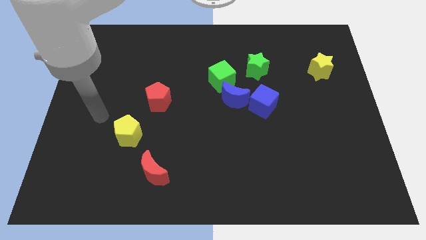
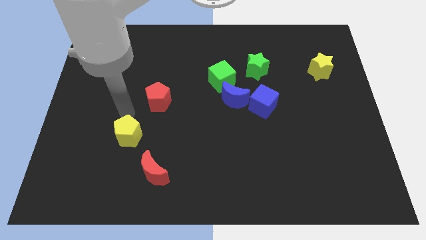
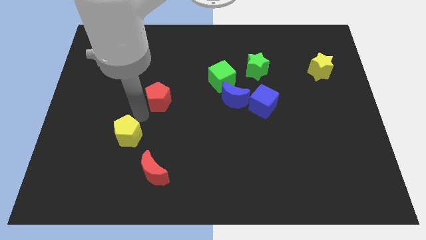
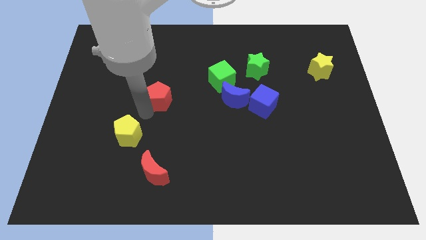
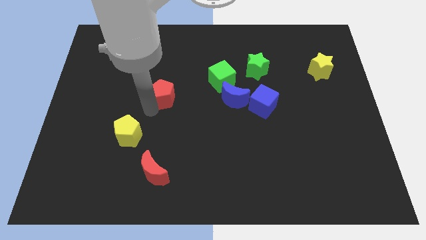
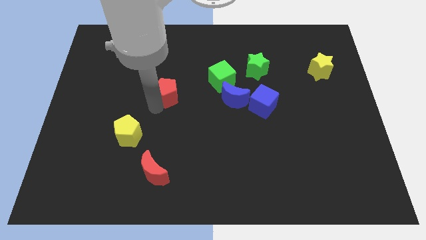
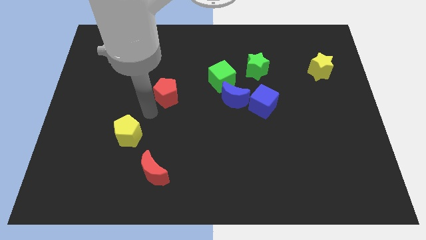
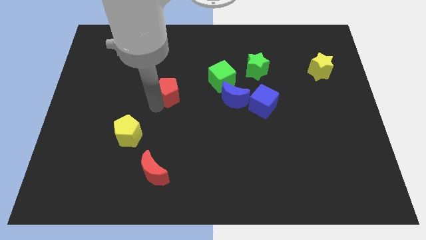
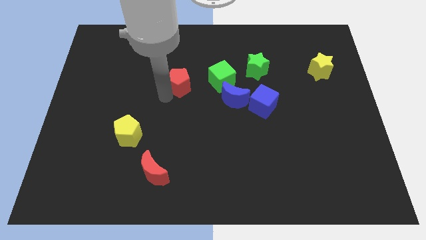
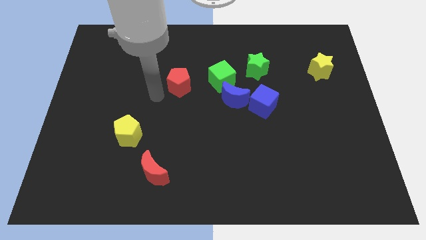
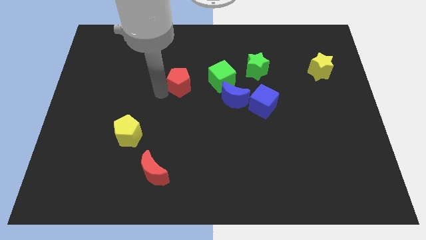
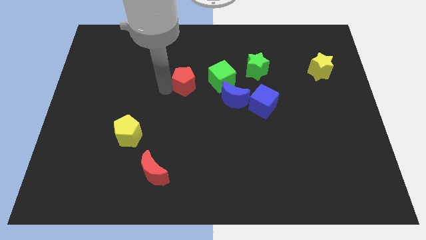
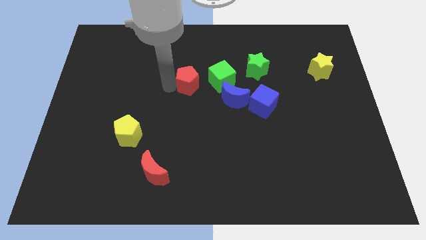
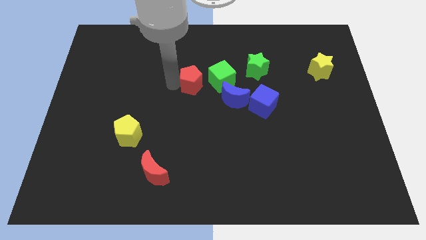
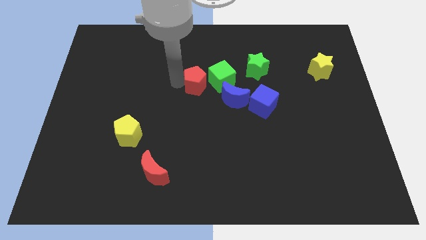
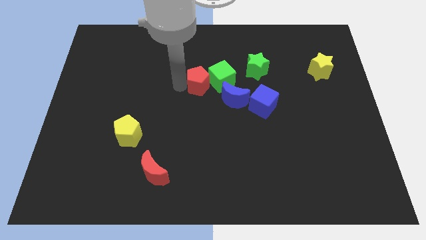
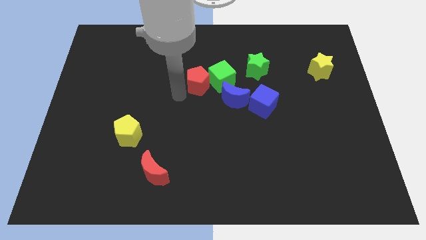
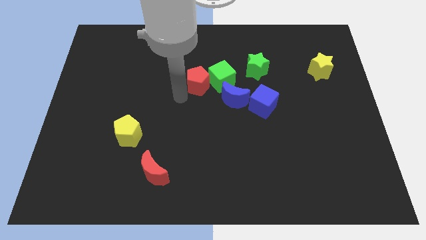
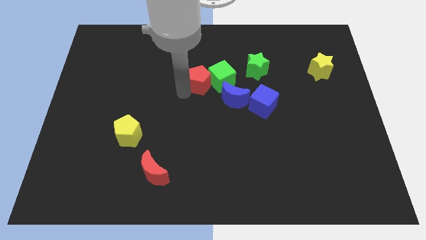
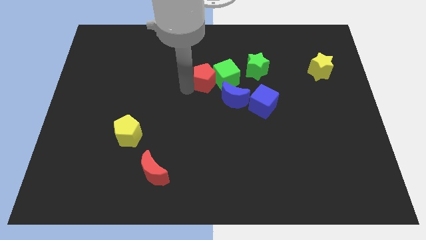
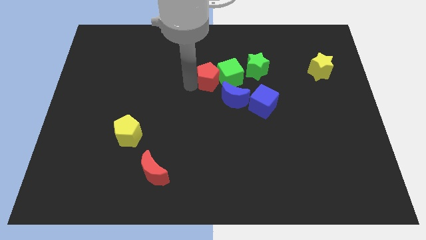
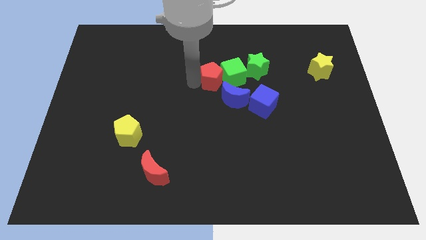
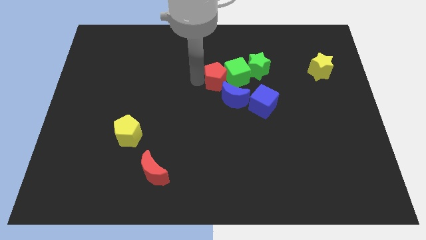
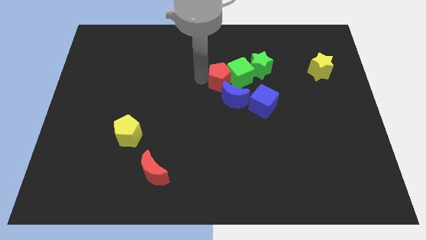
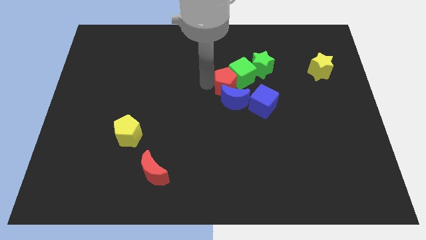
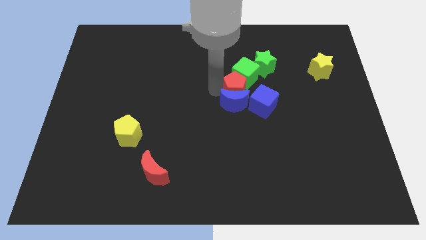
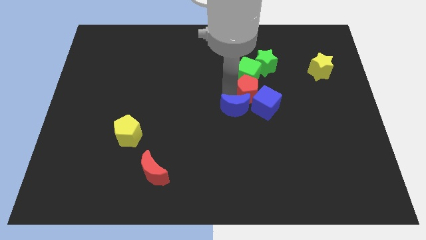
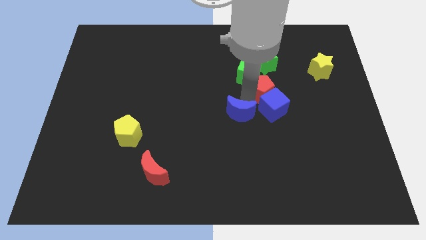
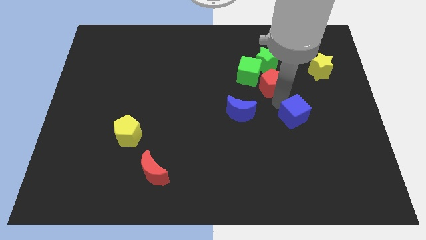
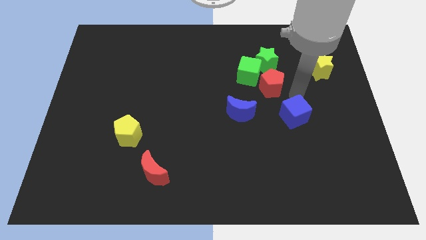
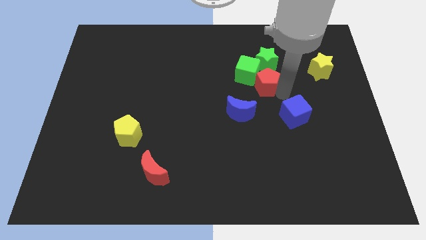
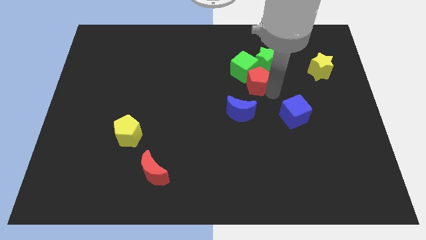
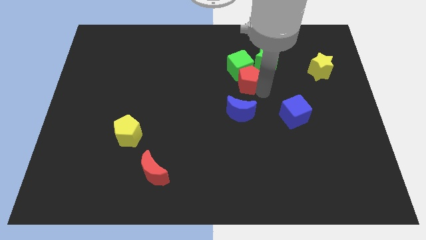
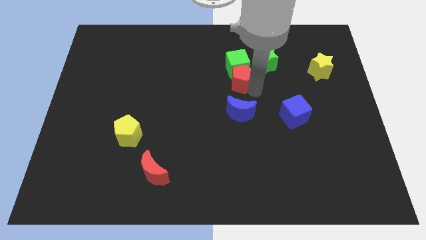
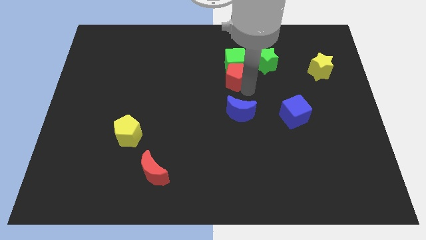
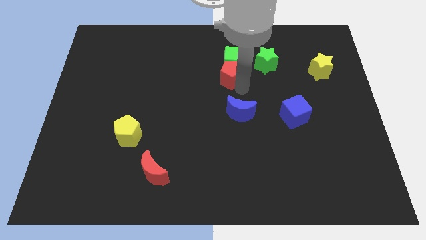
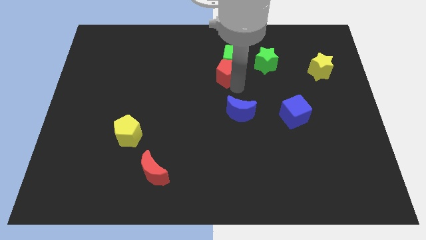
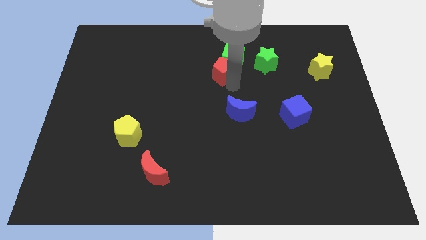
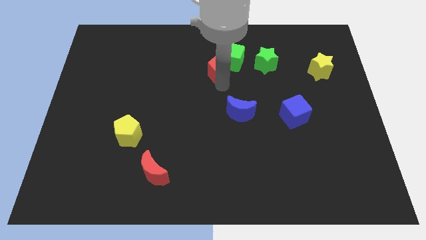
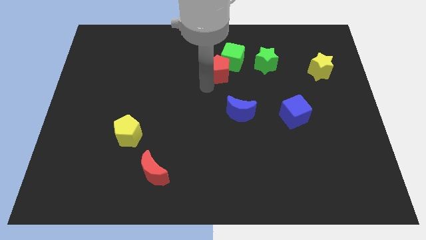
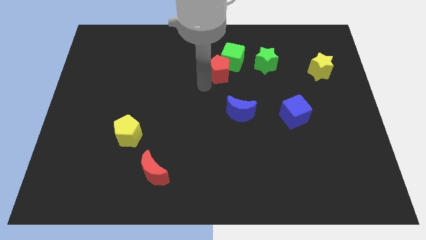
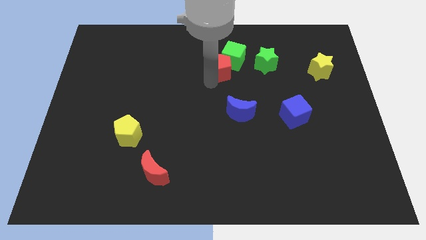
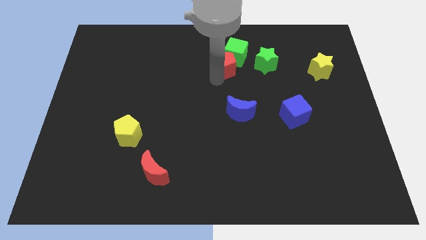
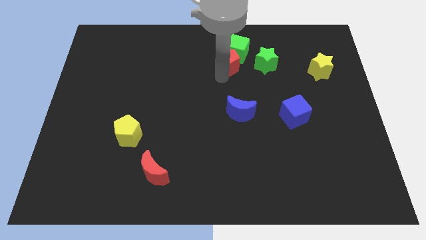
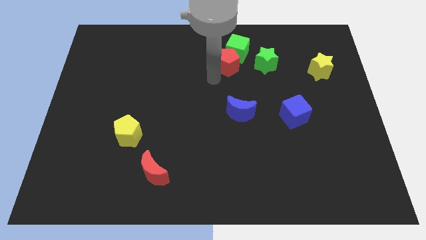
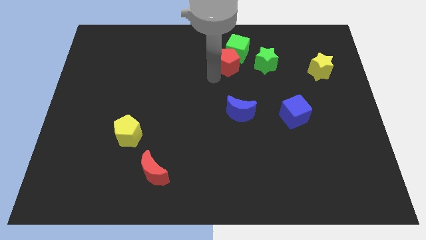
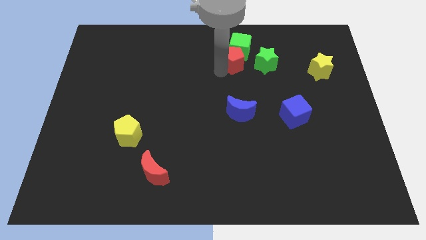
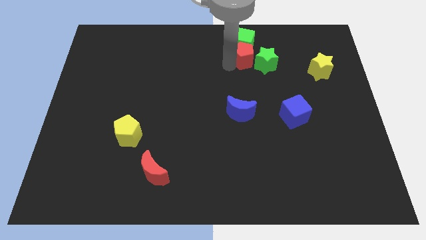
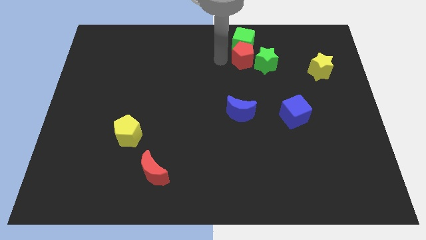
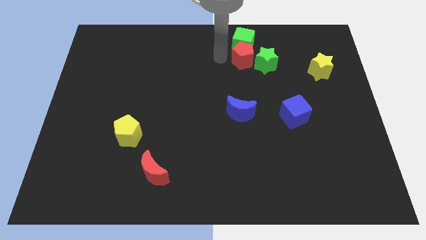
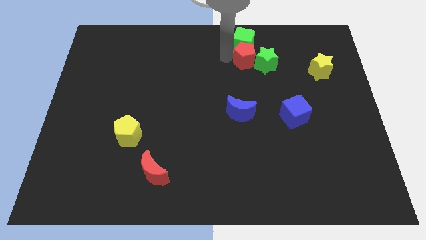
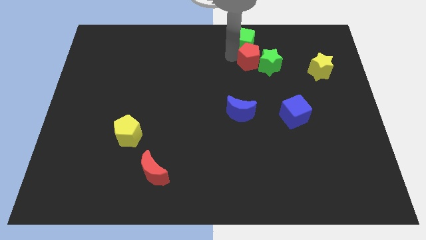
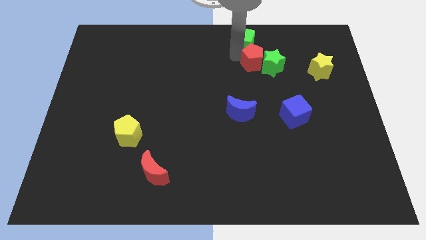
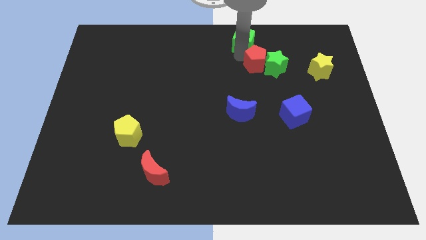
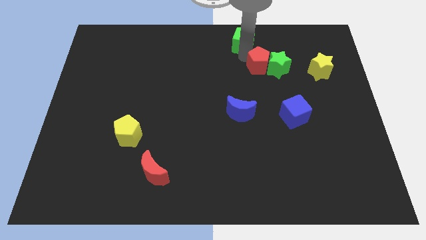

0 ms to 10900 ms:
move the red pentagon to the left side of the yellow star

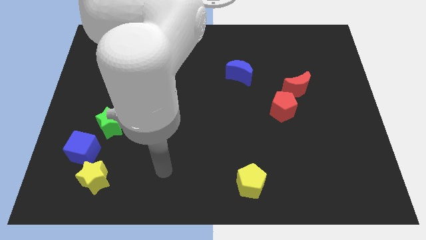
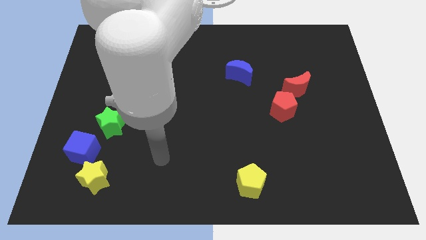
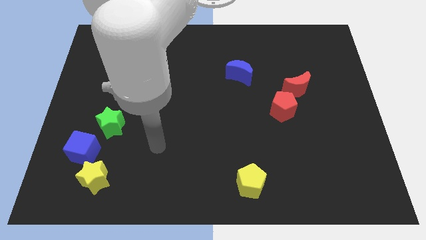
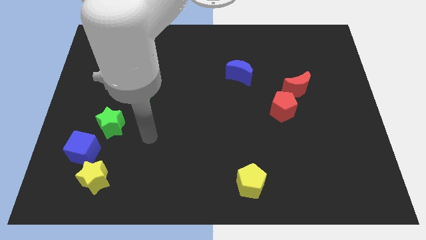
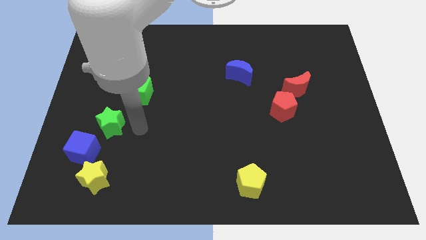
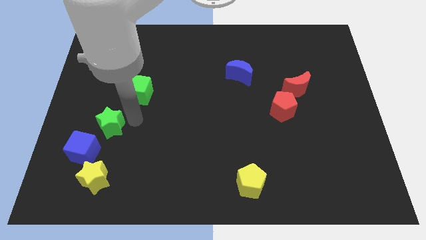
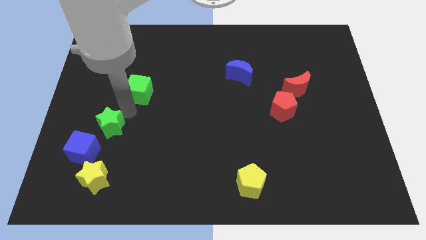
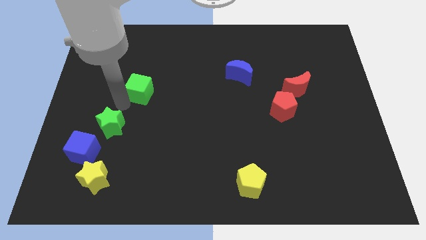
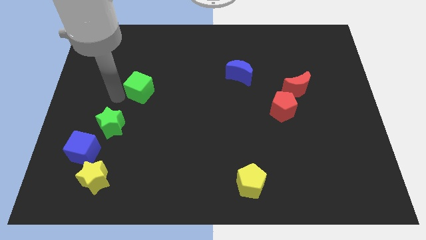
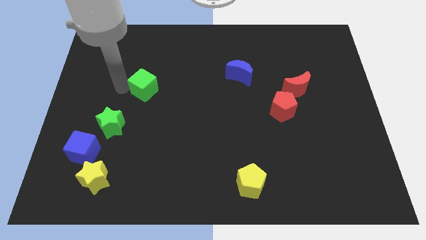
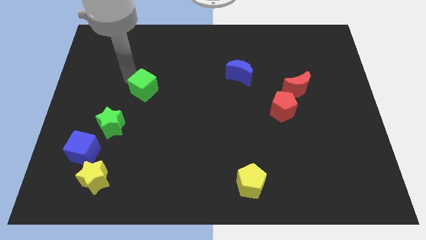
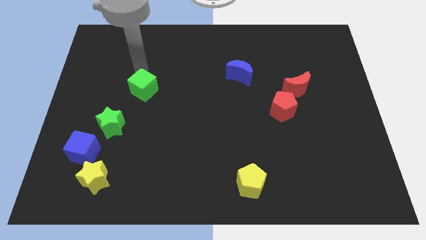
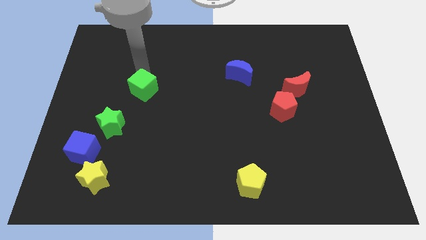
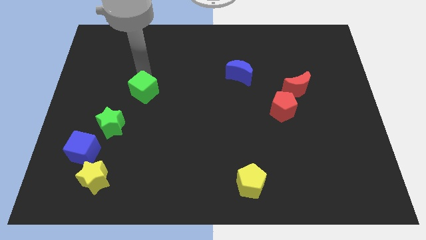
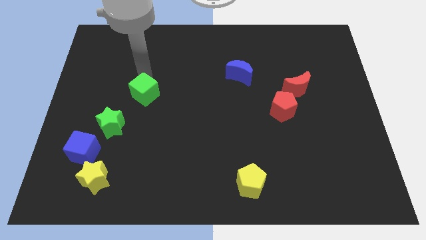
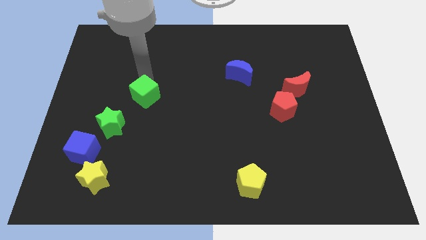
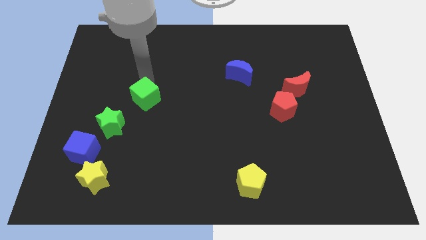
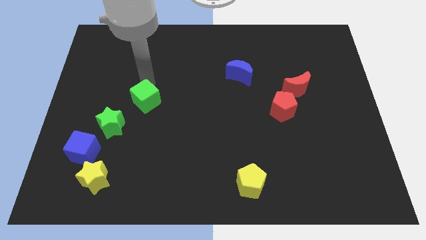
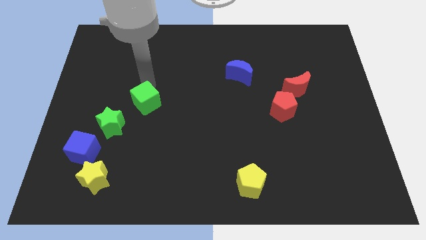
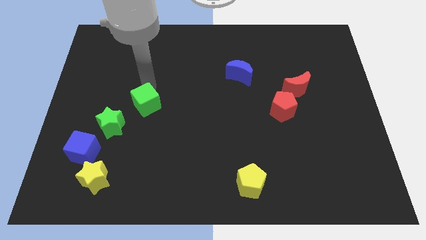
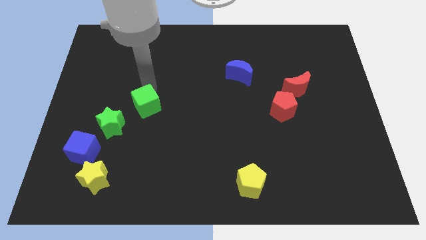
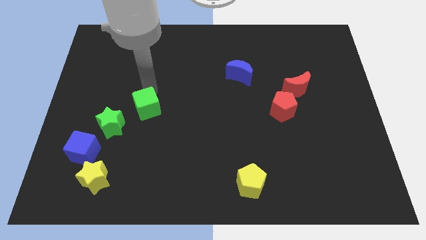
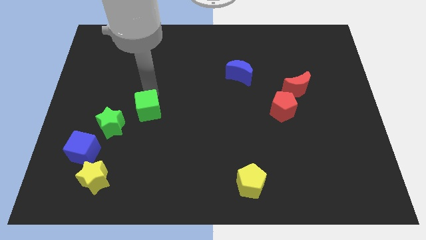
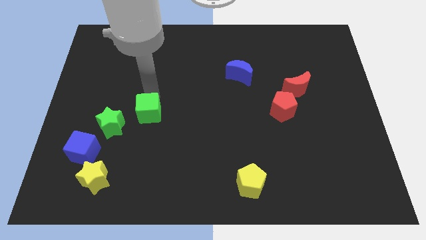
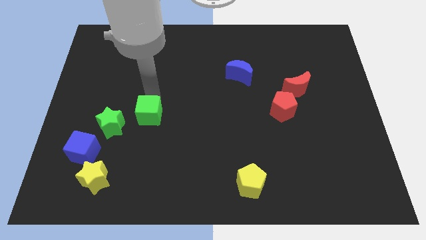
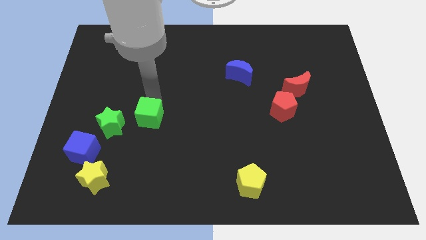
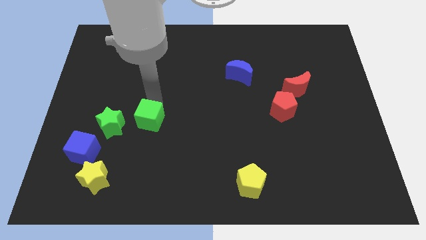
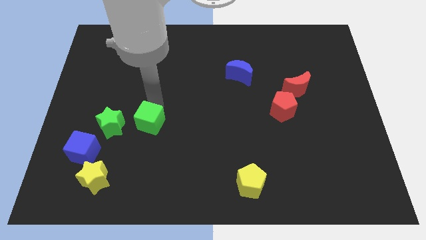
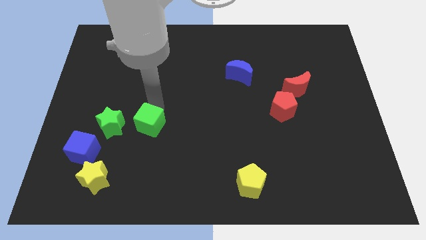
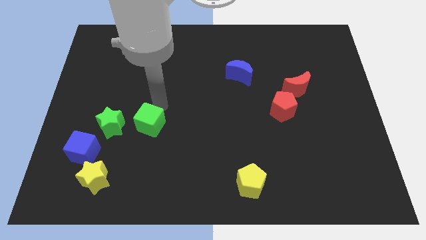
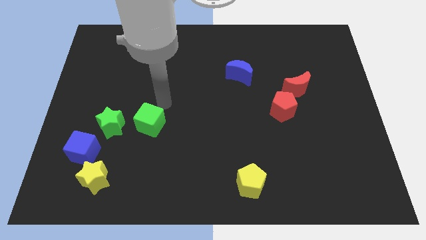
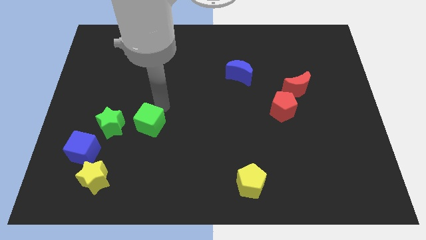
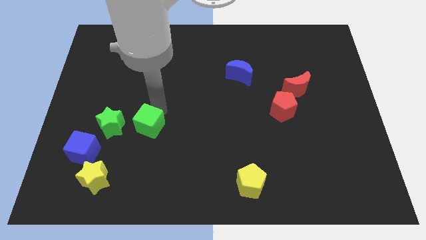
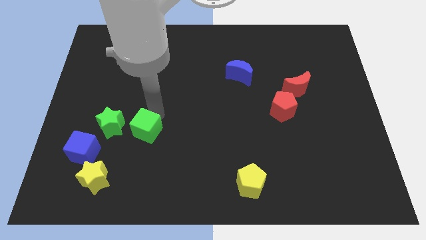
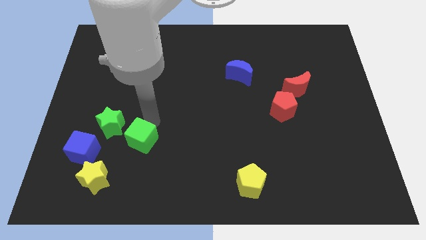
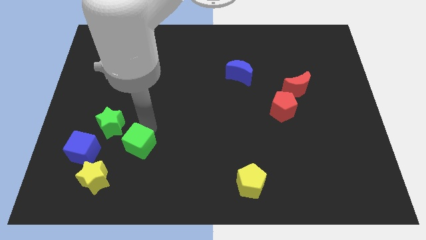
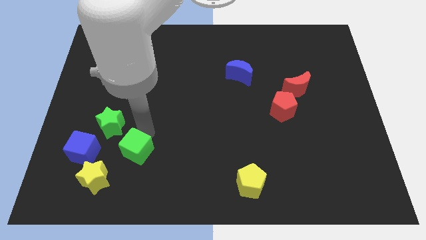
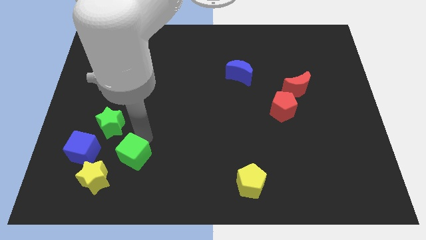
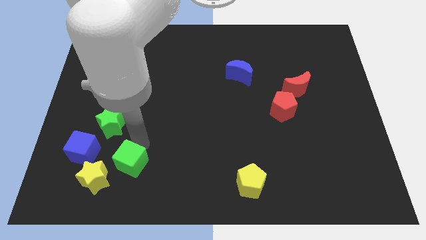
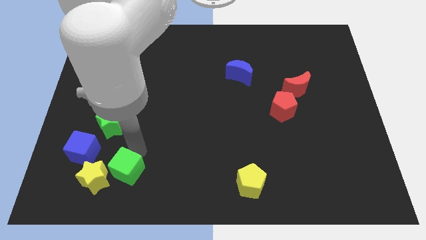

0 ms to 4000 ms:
slide the green cube diagonally down and to the right of the blue cube
